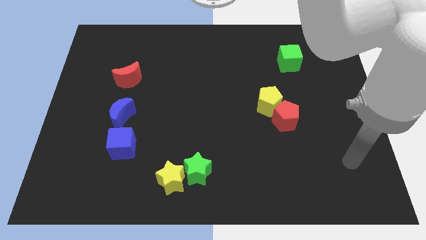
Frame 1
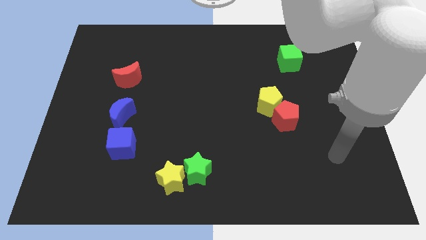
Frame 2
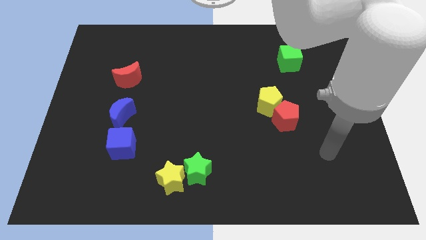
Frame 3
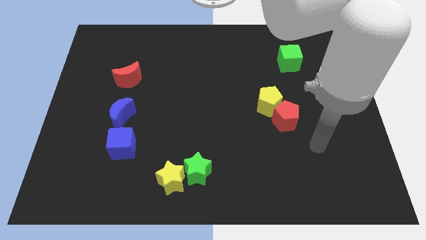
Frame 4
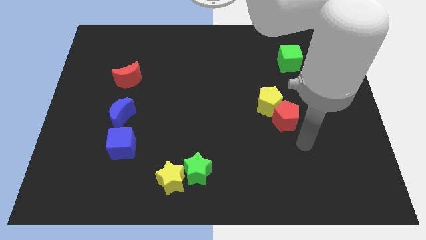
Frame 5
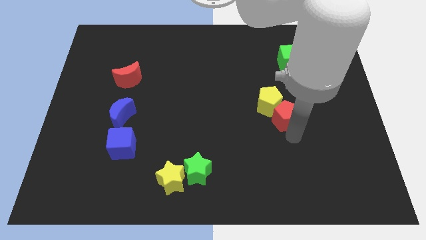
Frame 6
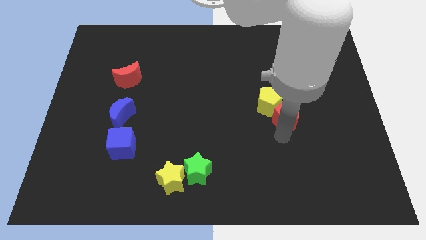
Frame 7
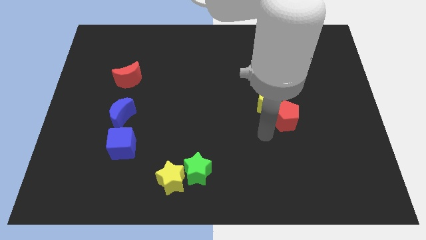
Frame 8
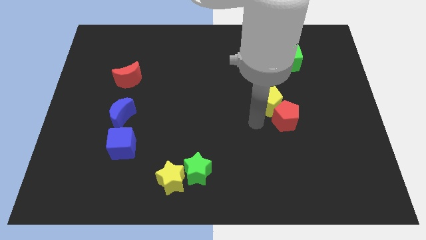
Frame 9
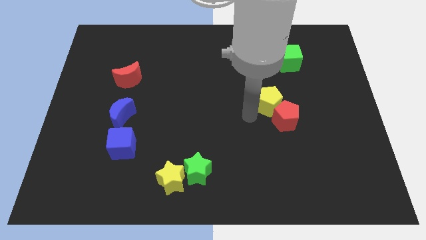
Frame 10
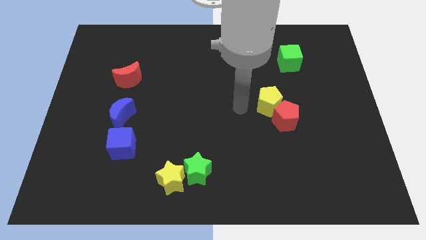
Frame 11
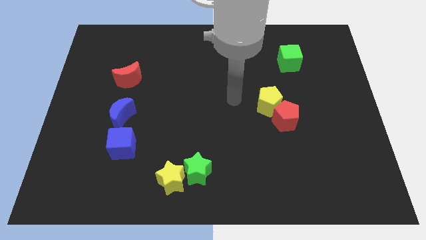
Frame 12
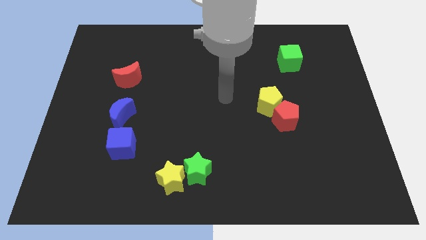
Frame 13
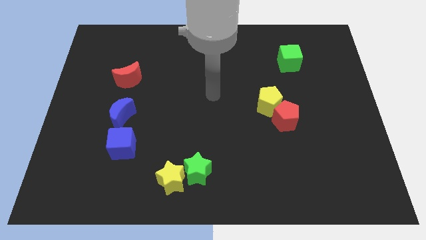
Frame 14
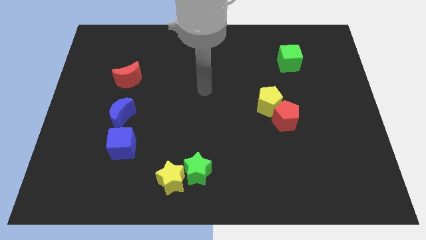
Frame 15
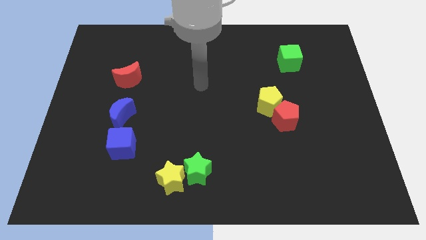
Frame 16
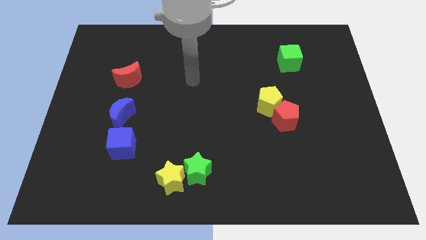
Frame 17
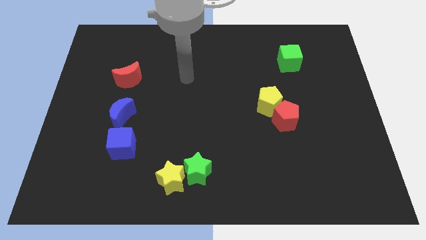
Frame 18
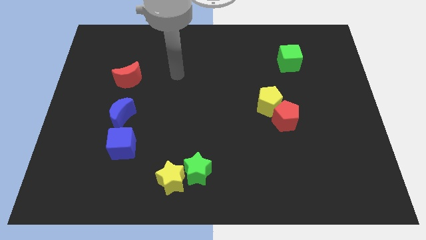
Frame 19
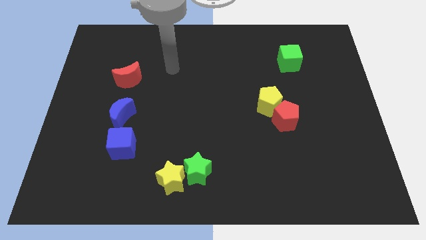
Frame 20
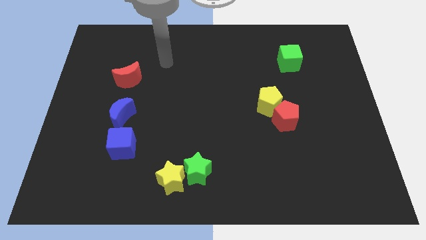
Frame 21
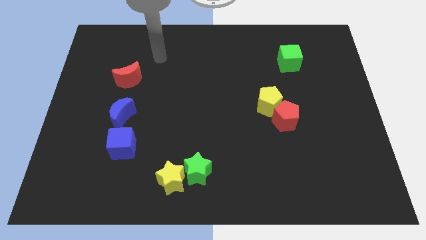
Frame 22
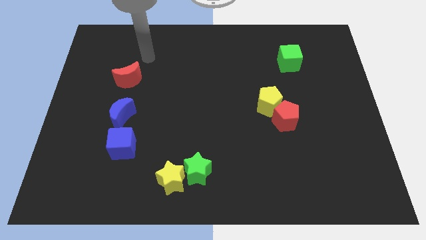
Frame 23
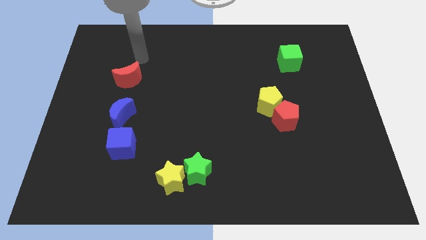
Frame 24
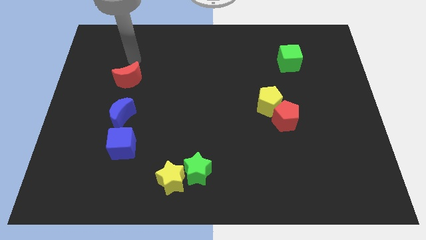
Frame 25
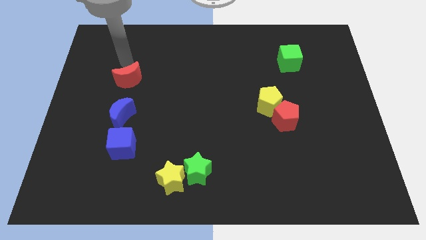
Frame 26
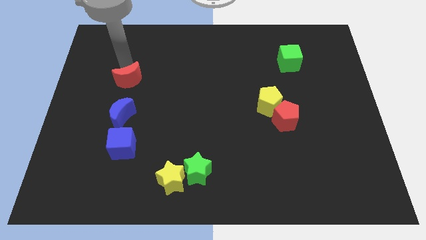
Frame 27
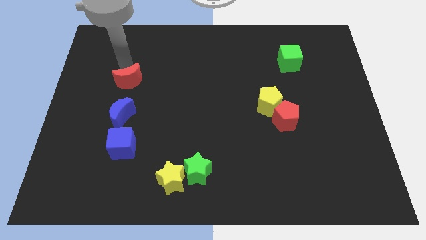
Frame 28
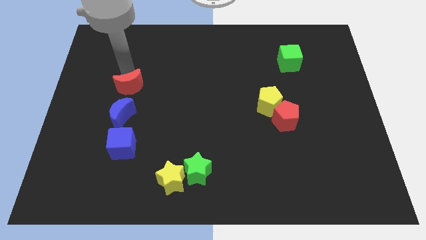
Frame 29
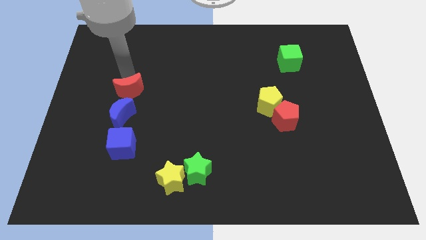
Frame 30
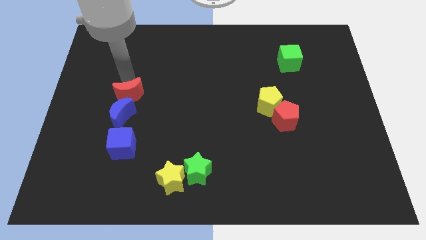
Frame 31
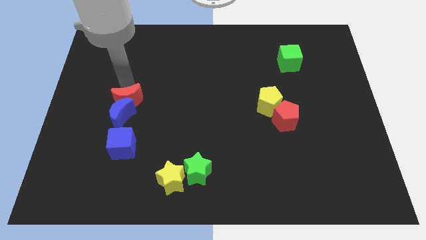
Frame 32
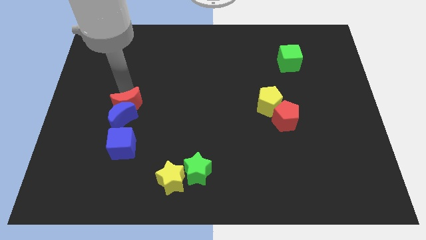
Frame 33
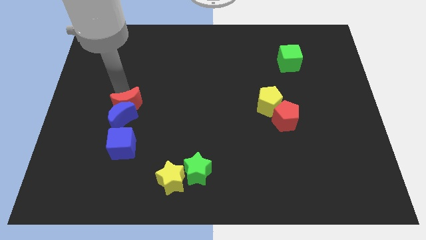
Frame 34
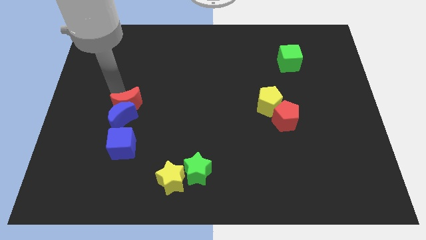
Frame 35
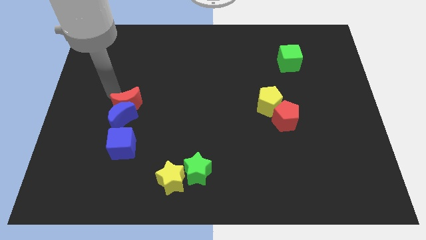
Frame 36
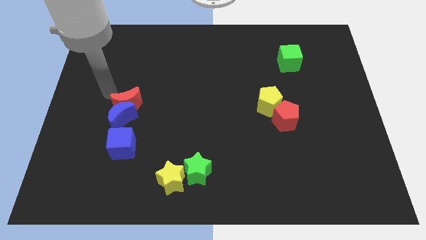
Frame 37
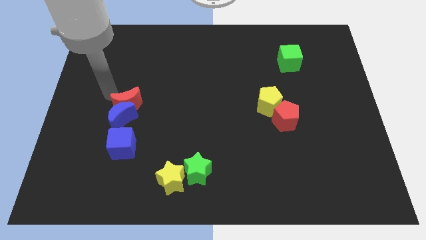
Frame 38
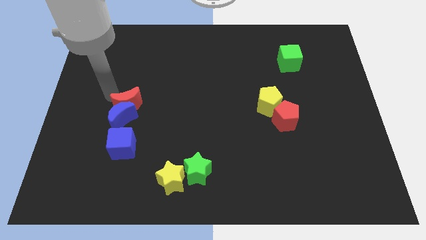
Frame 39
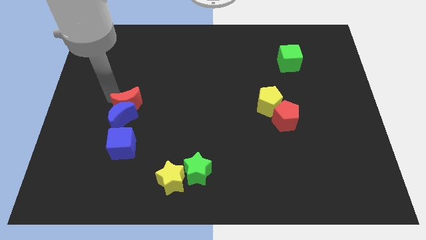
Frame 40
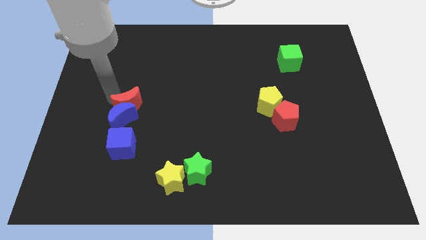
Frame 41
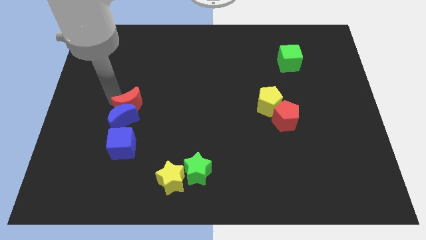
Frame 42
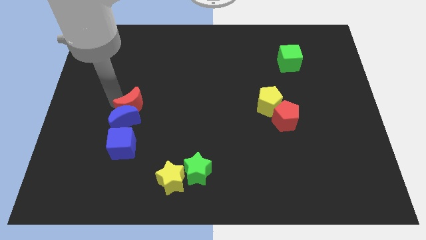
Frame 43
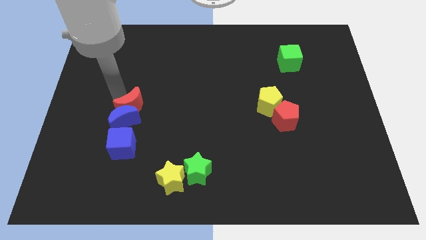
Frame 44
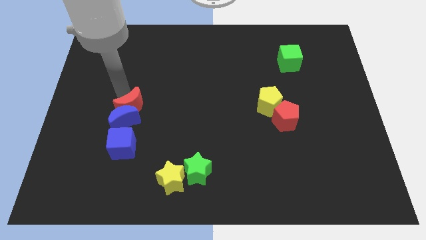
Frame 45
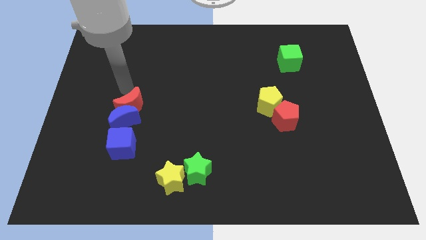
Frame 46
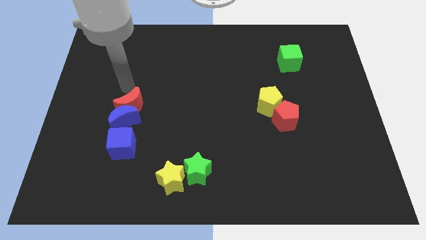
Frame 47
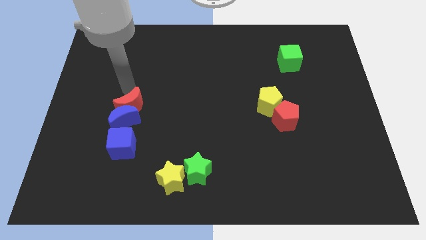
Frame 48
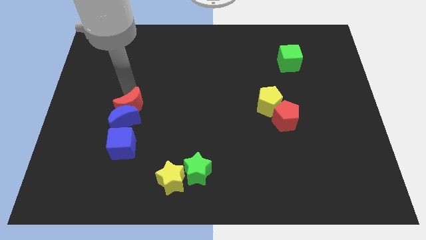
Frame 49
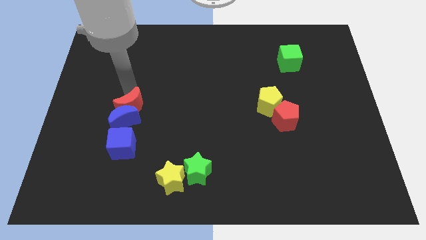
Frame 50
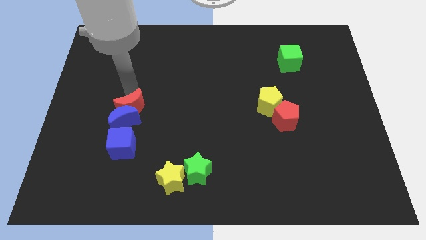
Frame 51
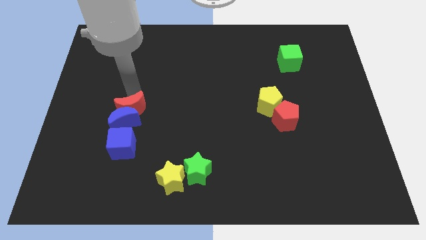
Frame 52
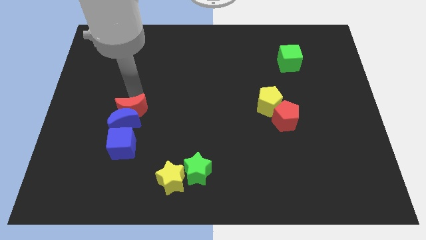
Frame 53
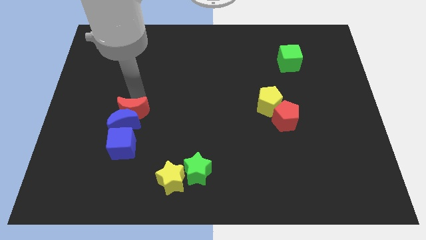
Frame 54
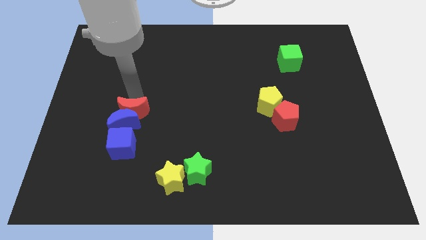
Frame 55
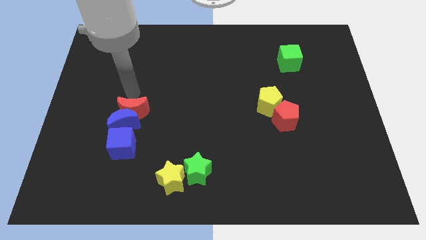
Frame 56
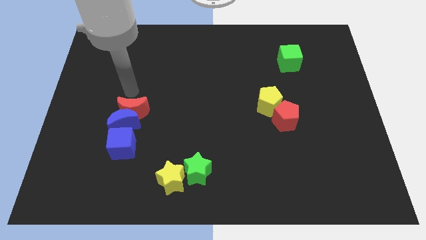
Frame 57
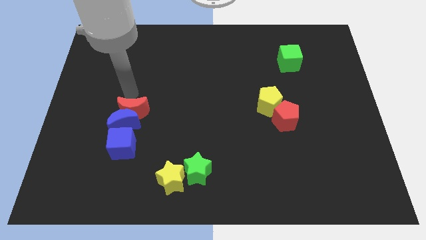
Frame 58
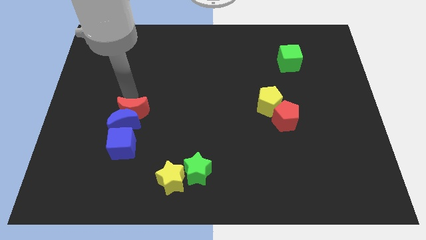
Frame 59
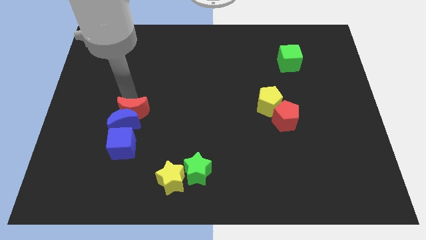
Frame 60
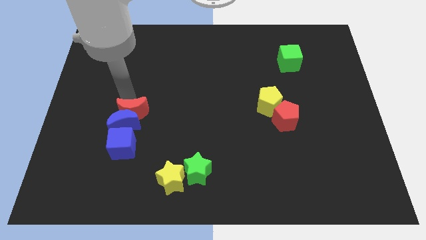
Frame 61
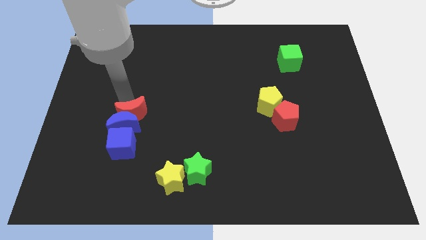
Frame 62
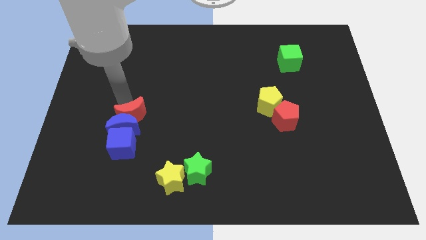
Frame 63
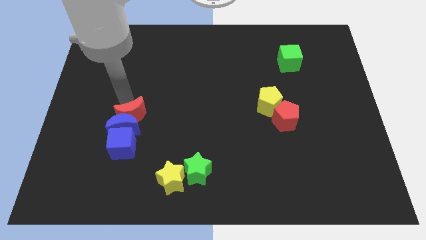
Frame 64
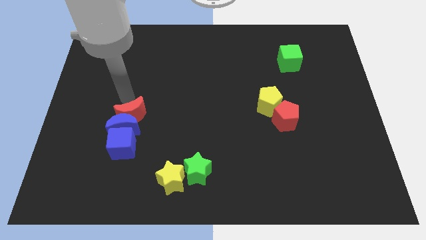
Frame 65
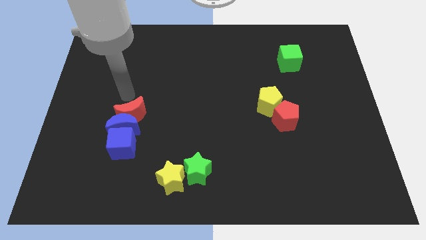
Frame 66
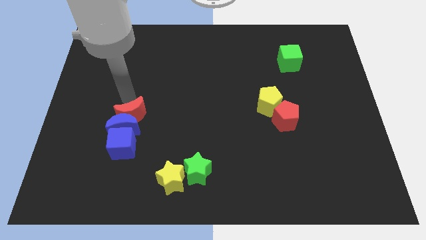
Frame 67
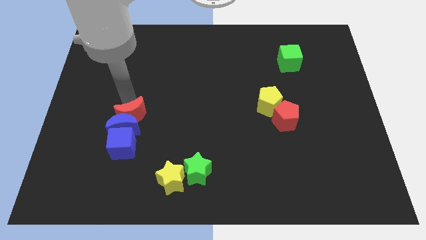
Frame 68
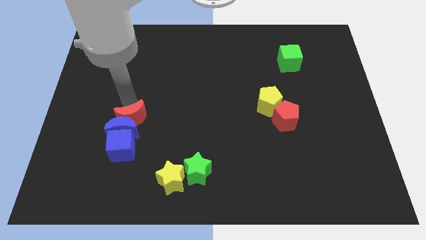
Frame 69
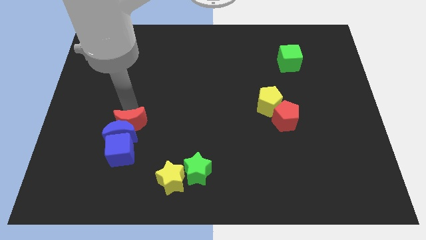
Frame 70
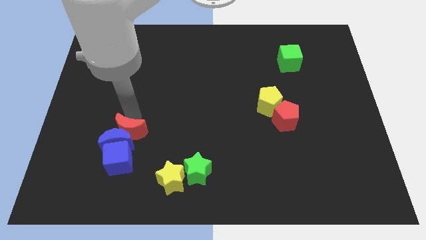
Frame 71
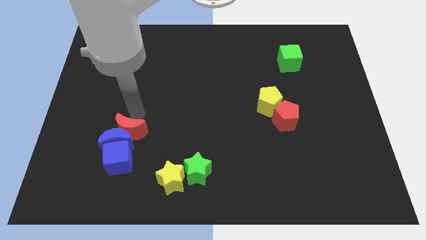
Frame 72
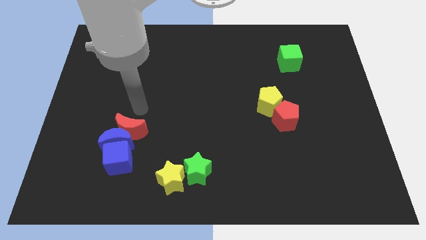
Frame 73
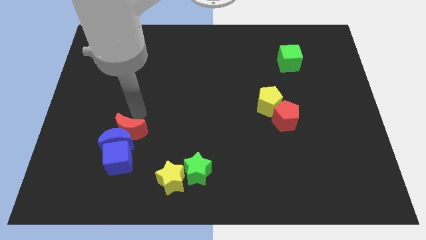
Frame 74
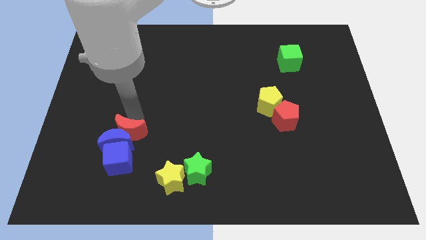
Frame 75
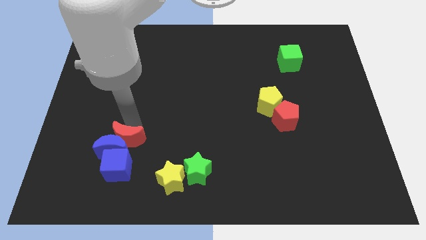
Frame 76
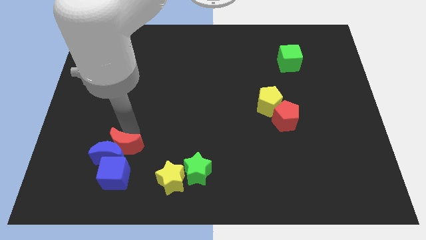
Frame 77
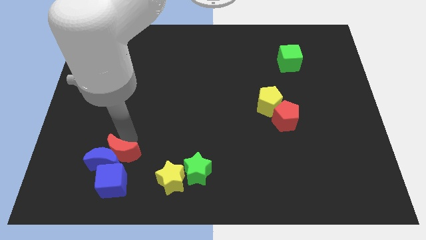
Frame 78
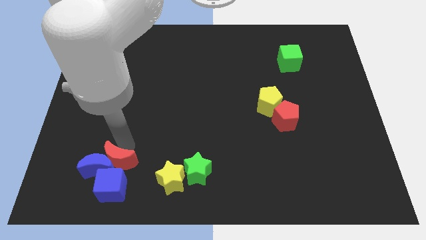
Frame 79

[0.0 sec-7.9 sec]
put the red moon to the blue cube
